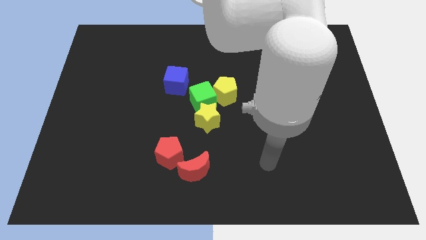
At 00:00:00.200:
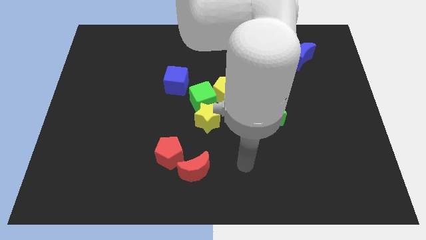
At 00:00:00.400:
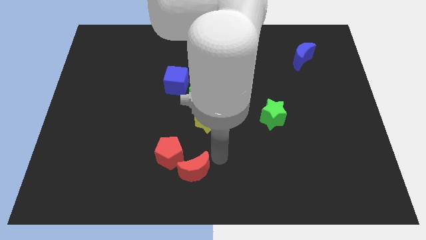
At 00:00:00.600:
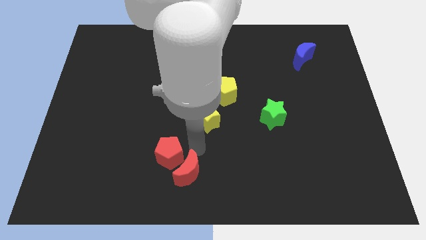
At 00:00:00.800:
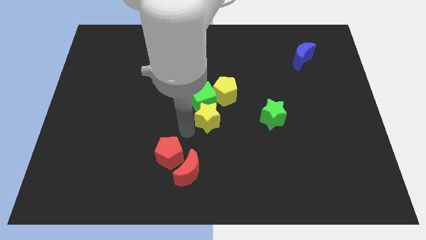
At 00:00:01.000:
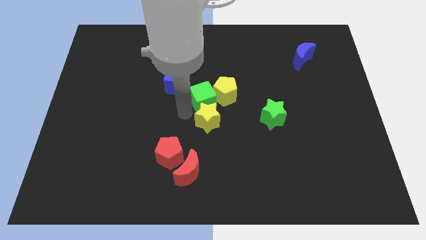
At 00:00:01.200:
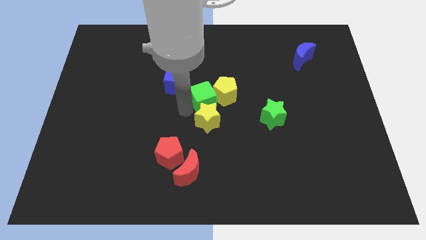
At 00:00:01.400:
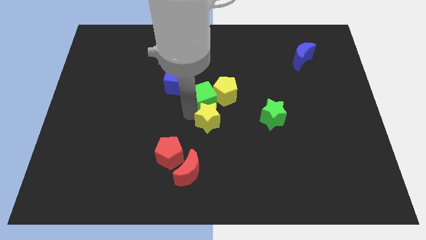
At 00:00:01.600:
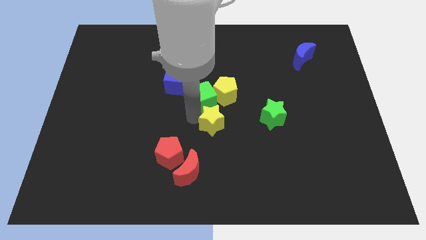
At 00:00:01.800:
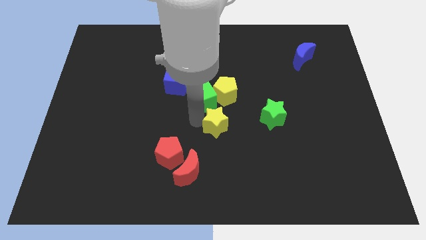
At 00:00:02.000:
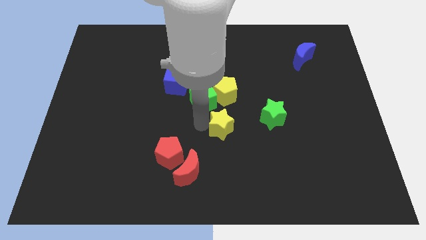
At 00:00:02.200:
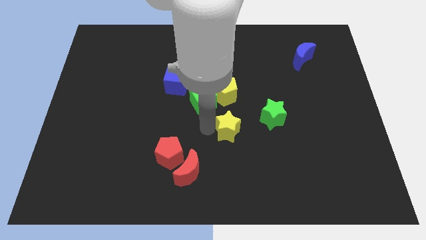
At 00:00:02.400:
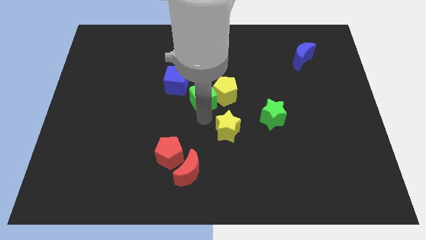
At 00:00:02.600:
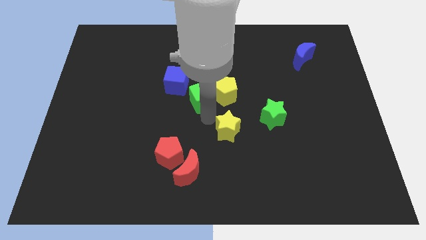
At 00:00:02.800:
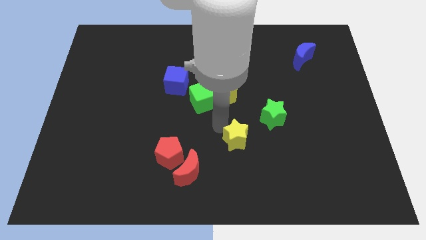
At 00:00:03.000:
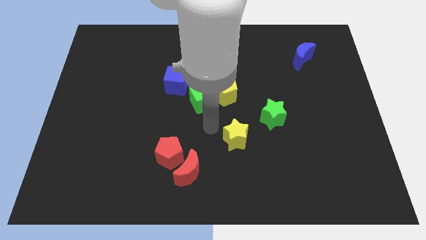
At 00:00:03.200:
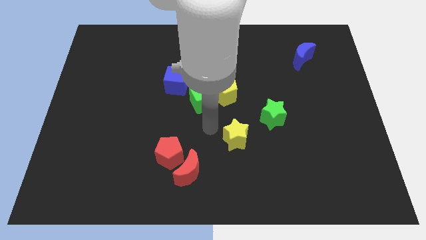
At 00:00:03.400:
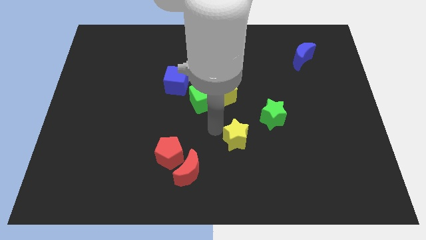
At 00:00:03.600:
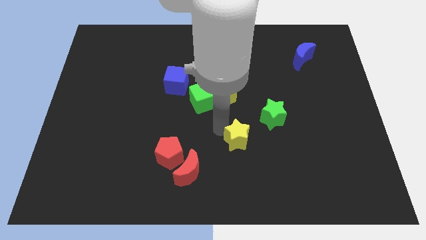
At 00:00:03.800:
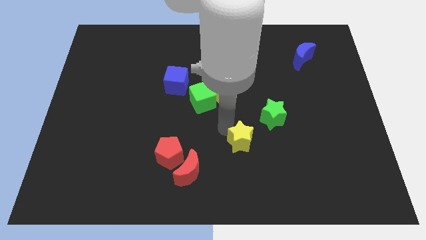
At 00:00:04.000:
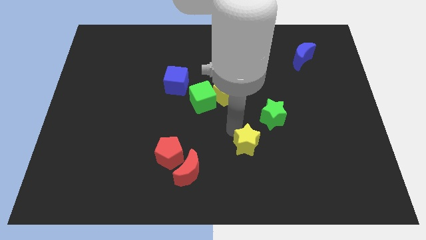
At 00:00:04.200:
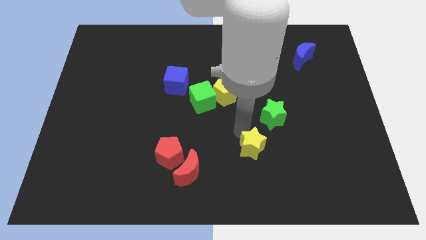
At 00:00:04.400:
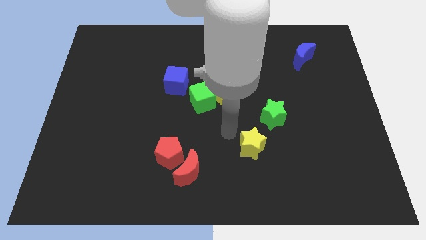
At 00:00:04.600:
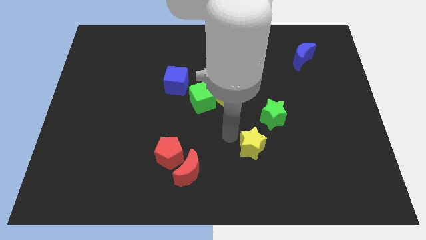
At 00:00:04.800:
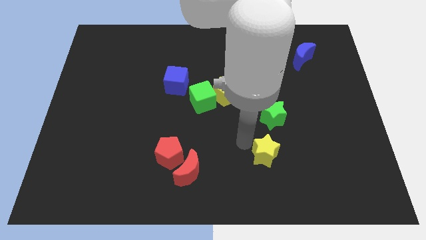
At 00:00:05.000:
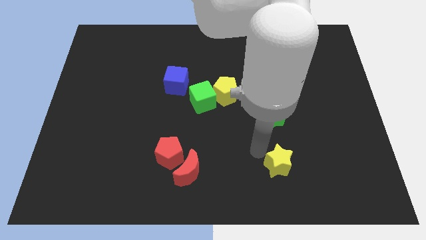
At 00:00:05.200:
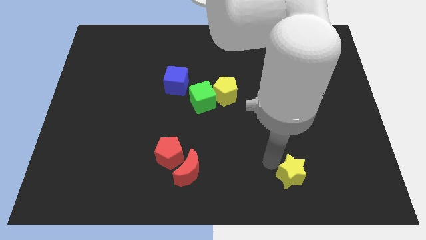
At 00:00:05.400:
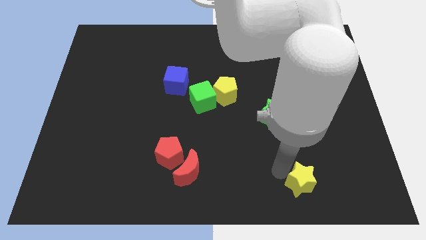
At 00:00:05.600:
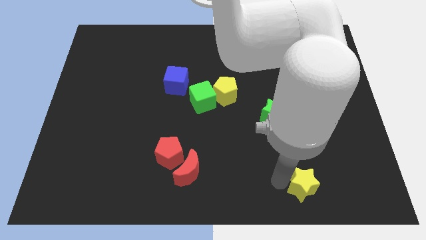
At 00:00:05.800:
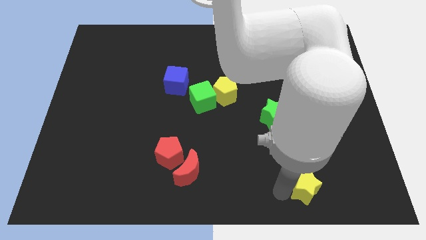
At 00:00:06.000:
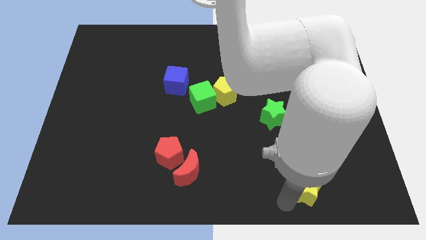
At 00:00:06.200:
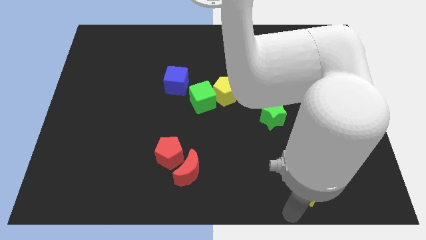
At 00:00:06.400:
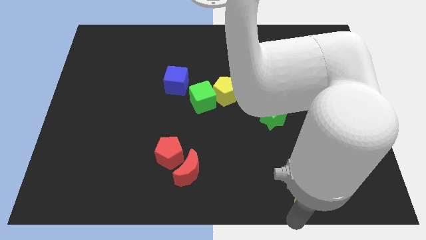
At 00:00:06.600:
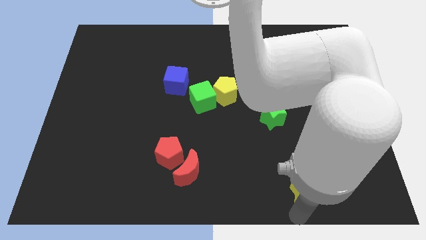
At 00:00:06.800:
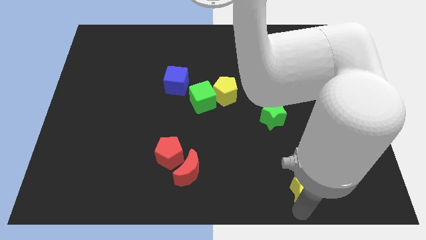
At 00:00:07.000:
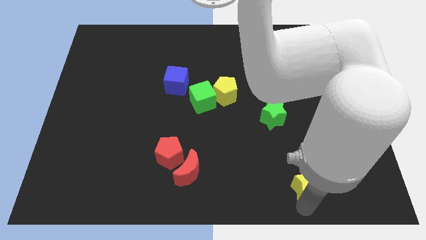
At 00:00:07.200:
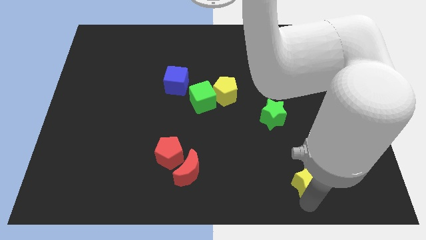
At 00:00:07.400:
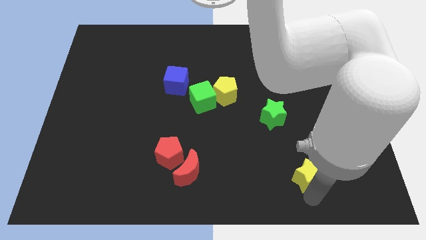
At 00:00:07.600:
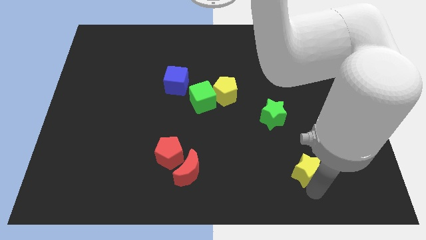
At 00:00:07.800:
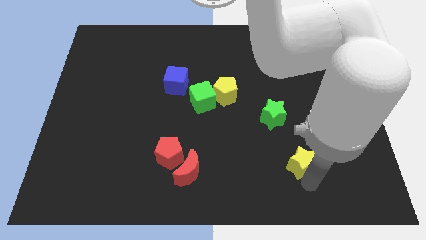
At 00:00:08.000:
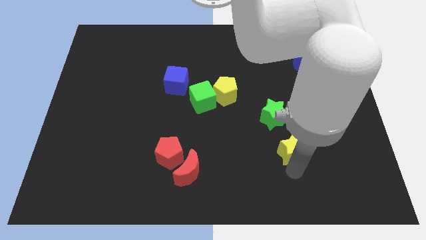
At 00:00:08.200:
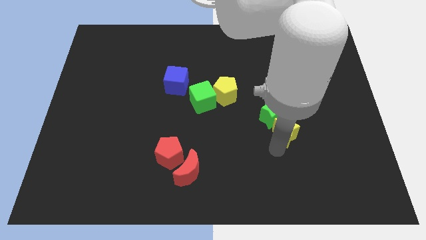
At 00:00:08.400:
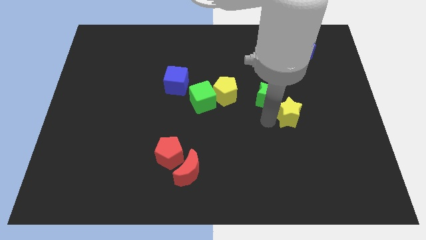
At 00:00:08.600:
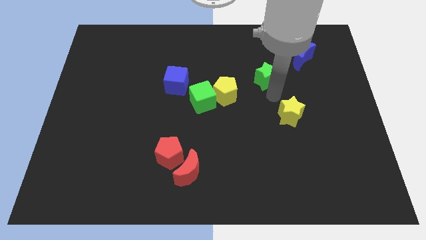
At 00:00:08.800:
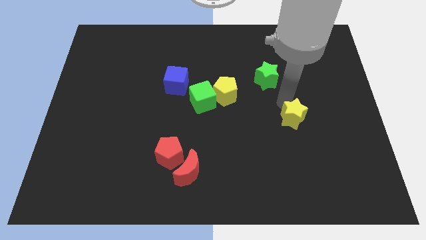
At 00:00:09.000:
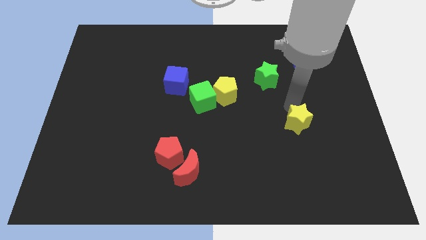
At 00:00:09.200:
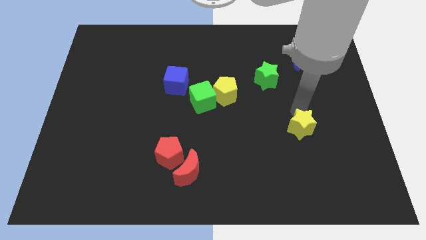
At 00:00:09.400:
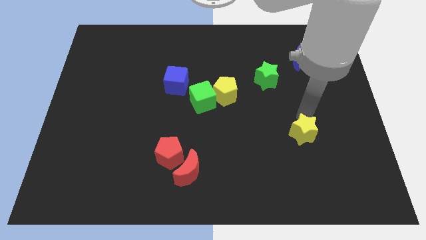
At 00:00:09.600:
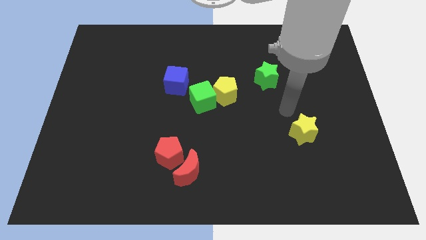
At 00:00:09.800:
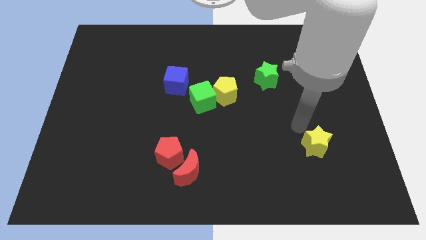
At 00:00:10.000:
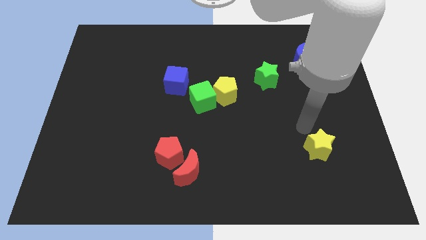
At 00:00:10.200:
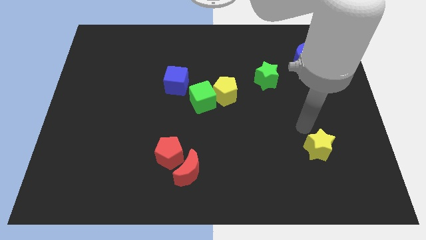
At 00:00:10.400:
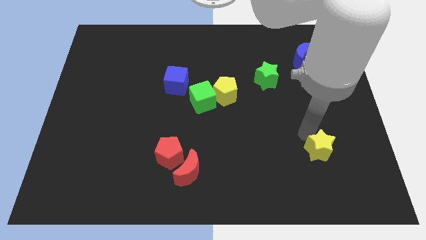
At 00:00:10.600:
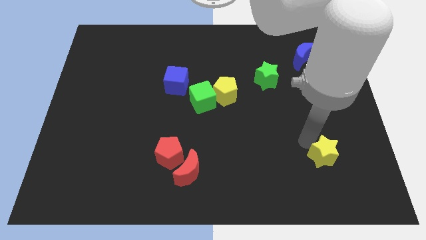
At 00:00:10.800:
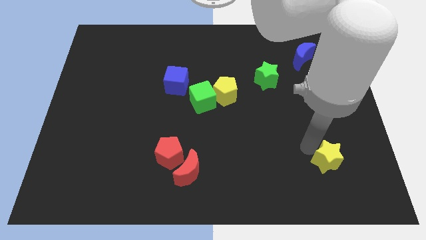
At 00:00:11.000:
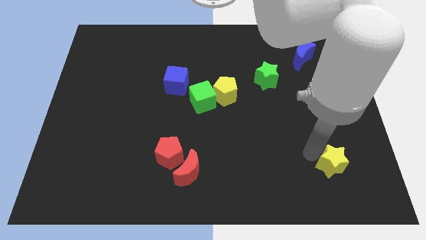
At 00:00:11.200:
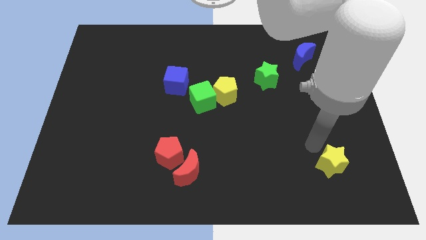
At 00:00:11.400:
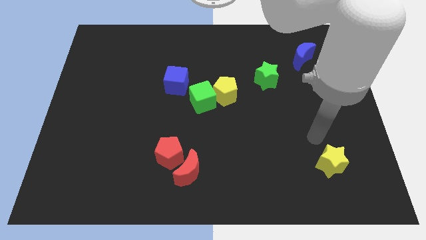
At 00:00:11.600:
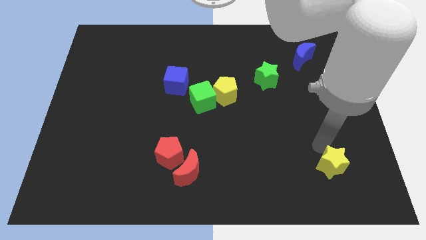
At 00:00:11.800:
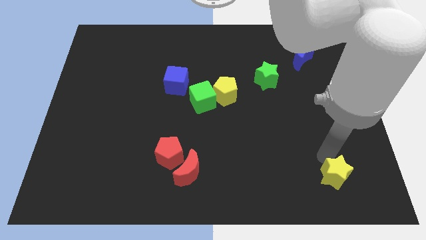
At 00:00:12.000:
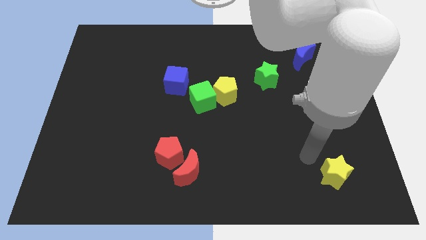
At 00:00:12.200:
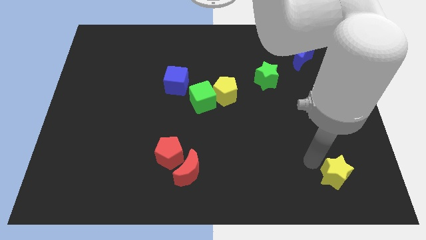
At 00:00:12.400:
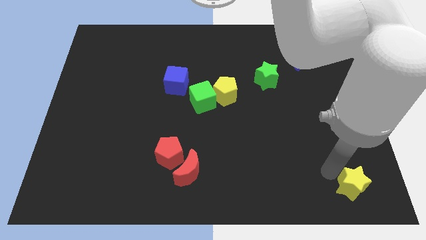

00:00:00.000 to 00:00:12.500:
slide the yellow star to the bottom right corner

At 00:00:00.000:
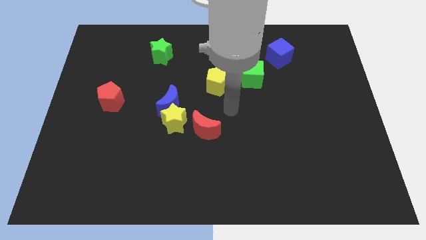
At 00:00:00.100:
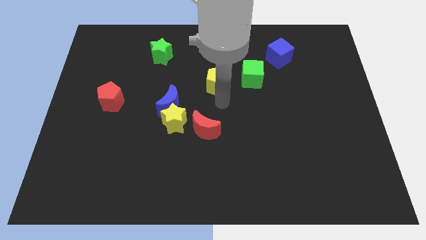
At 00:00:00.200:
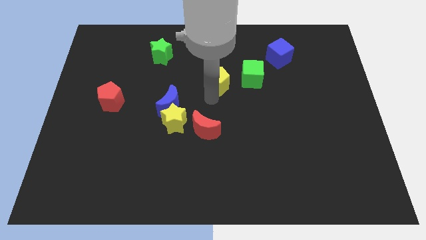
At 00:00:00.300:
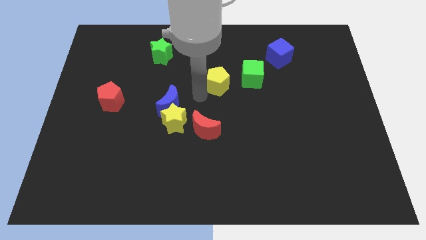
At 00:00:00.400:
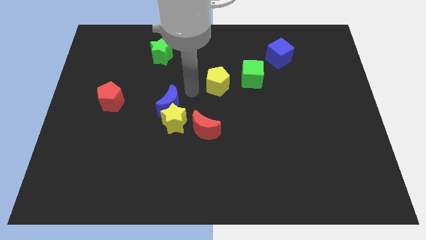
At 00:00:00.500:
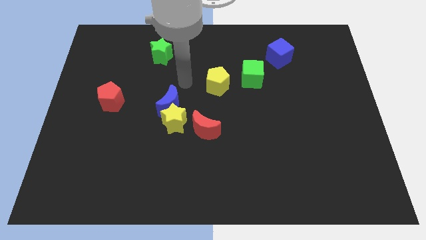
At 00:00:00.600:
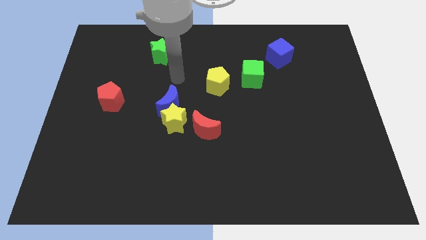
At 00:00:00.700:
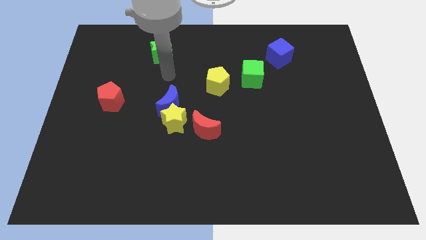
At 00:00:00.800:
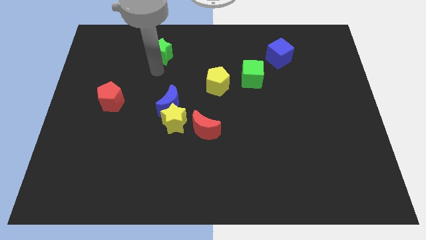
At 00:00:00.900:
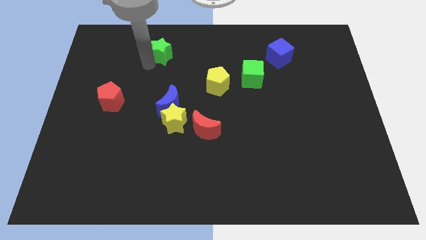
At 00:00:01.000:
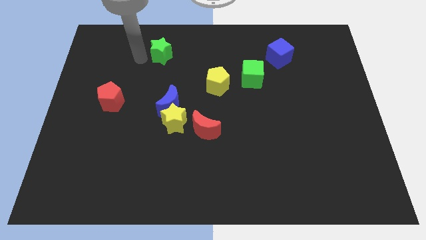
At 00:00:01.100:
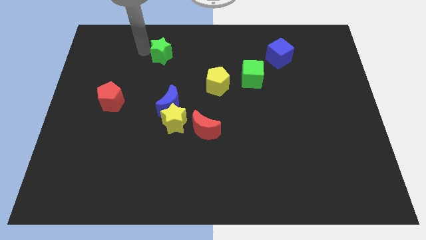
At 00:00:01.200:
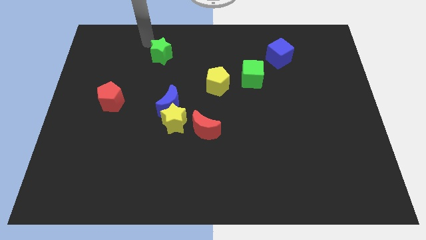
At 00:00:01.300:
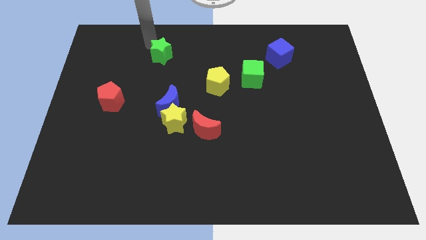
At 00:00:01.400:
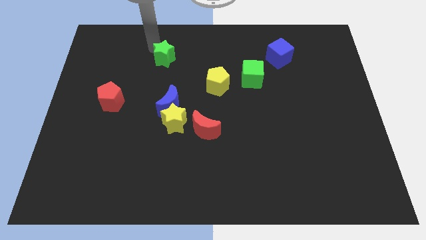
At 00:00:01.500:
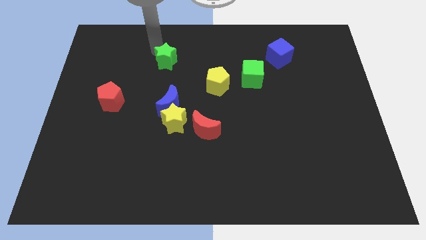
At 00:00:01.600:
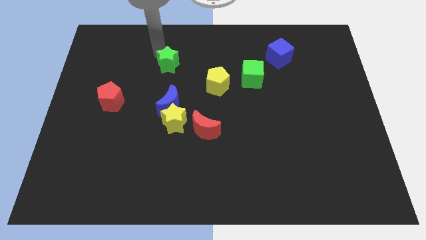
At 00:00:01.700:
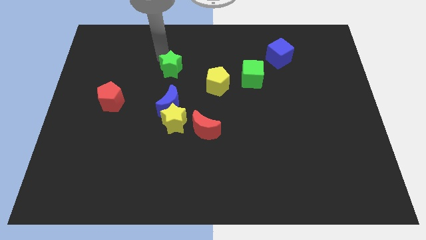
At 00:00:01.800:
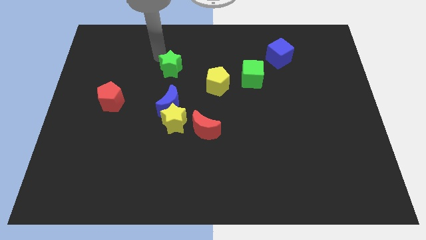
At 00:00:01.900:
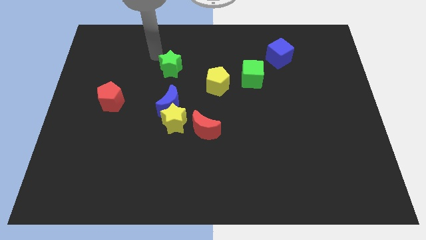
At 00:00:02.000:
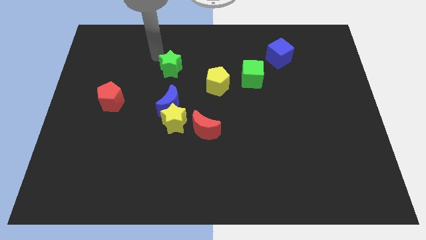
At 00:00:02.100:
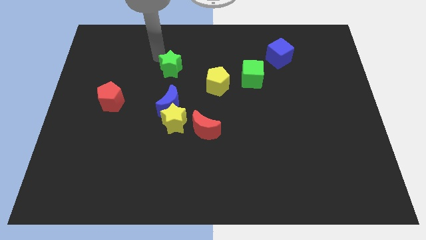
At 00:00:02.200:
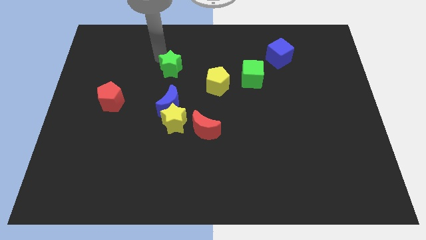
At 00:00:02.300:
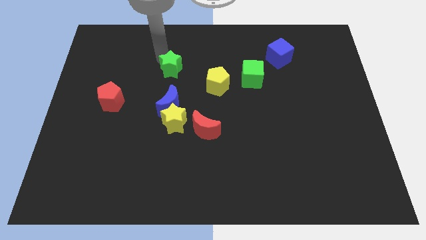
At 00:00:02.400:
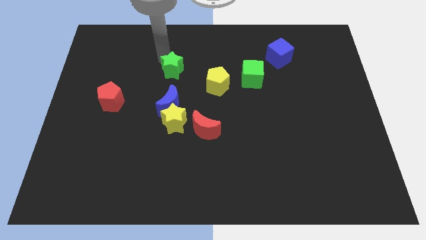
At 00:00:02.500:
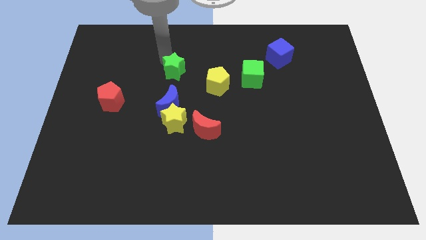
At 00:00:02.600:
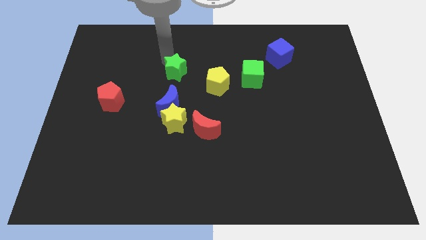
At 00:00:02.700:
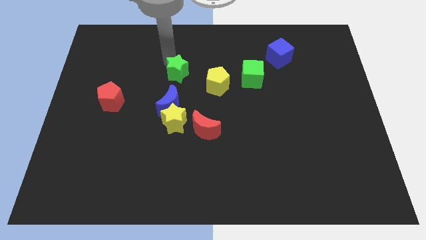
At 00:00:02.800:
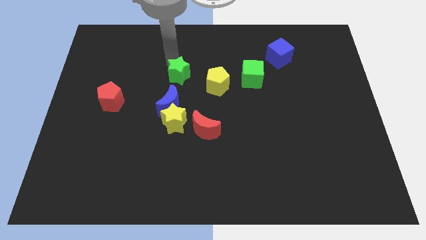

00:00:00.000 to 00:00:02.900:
move the green star to the middle
